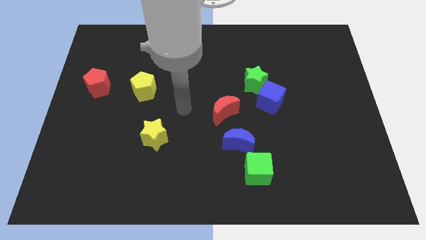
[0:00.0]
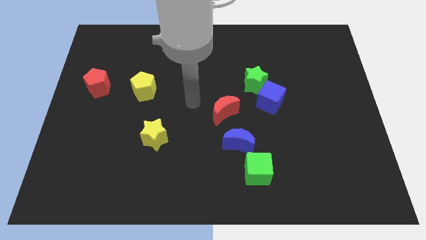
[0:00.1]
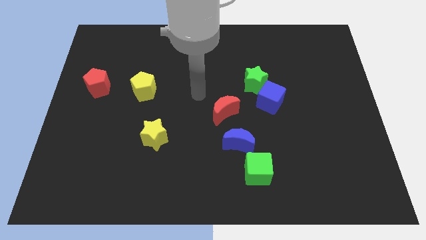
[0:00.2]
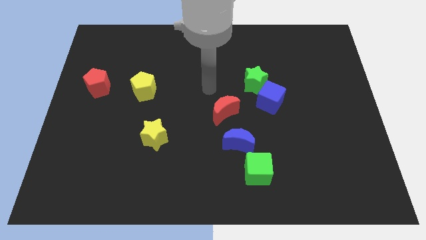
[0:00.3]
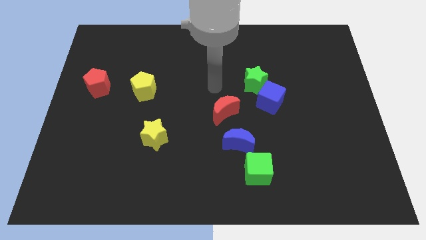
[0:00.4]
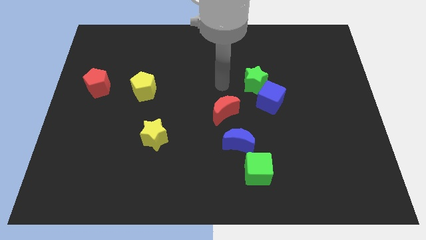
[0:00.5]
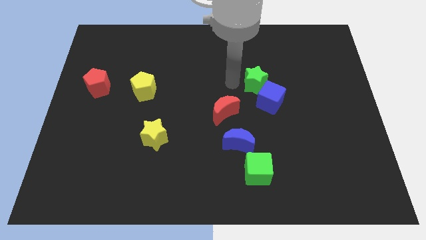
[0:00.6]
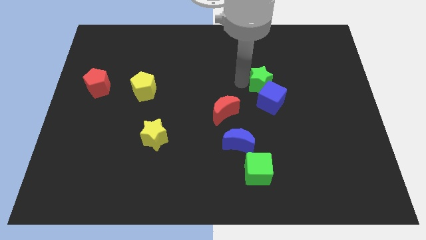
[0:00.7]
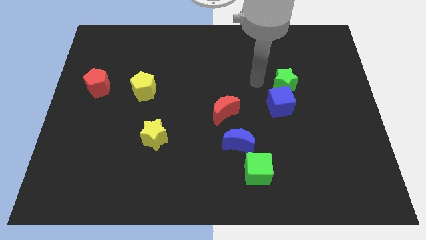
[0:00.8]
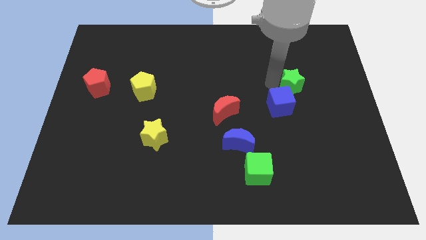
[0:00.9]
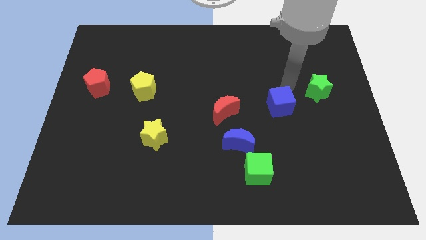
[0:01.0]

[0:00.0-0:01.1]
move the blue cube away from the green star

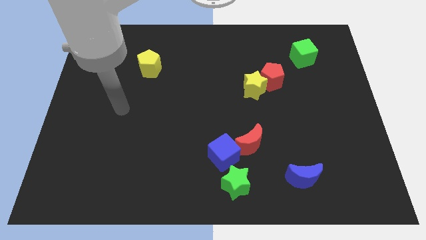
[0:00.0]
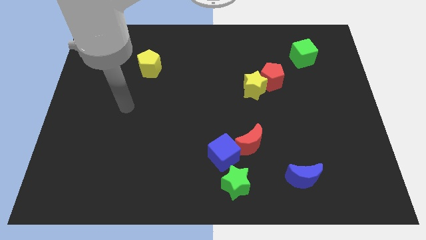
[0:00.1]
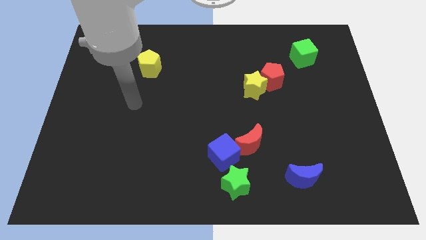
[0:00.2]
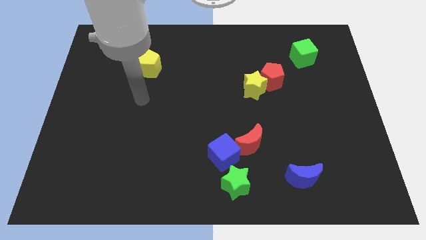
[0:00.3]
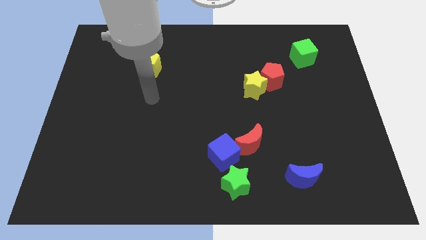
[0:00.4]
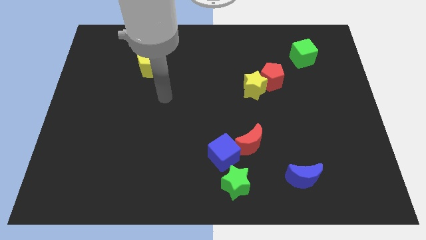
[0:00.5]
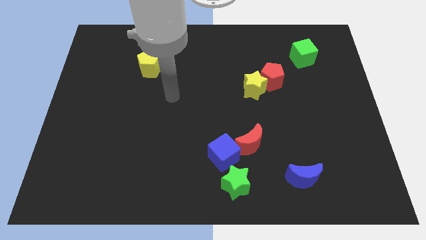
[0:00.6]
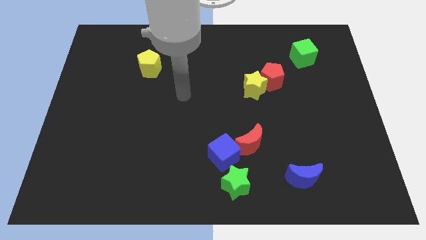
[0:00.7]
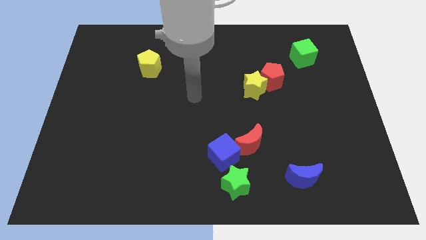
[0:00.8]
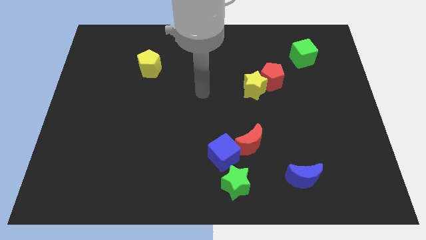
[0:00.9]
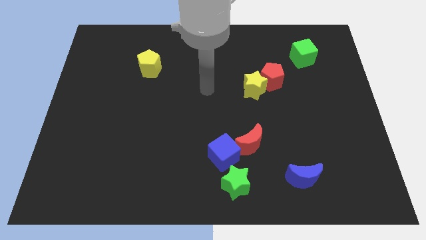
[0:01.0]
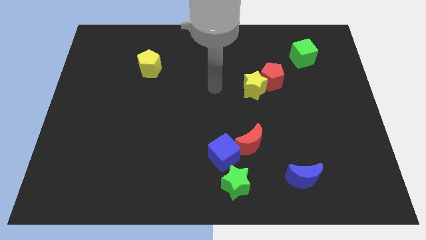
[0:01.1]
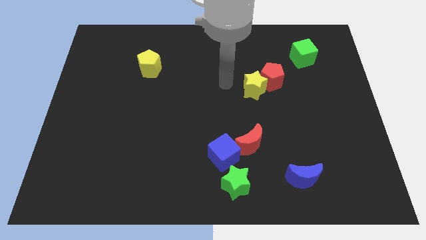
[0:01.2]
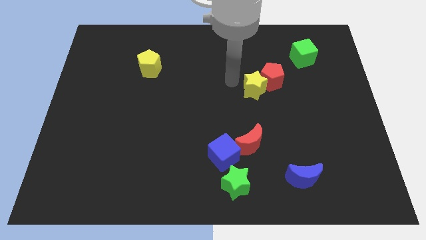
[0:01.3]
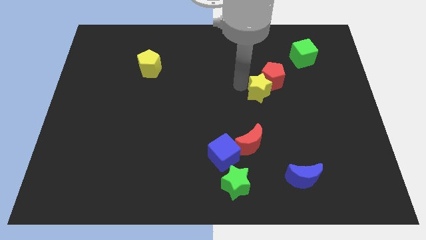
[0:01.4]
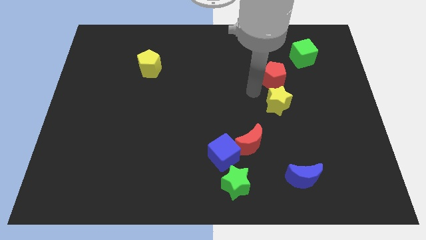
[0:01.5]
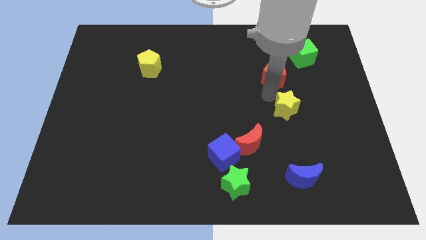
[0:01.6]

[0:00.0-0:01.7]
separate the red pentagon from the yellow star

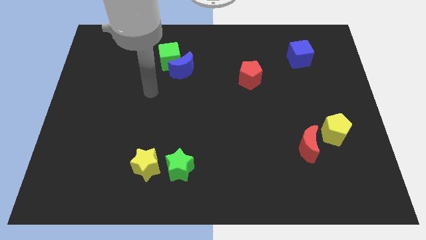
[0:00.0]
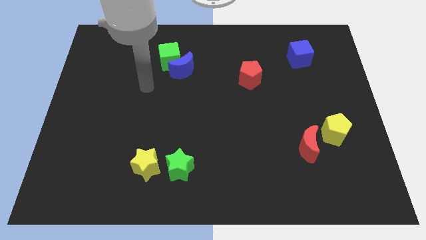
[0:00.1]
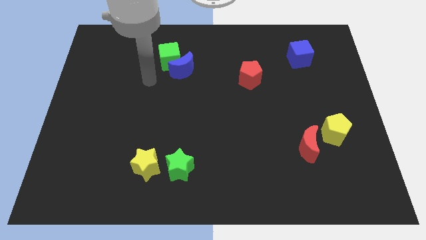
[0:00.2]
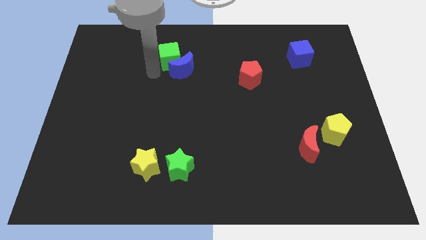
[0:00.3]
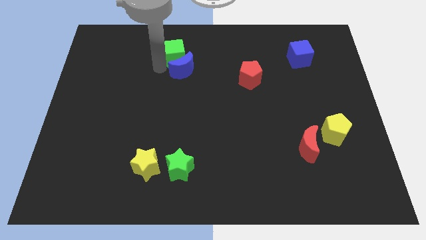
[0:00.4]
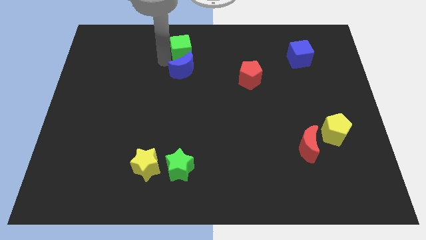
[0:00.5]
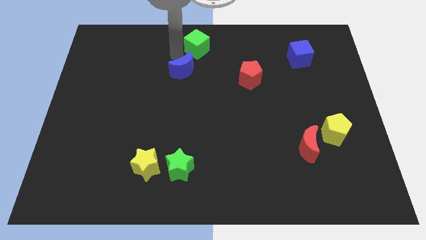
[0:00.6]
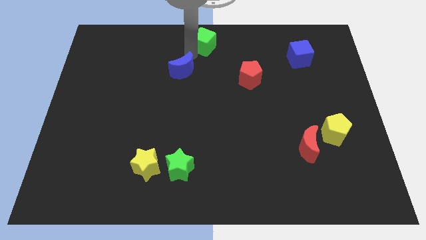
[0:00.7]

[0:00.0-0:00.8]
separate the blue moon from the green cube

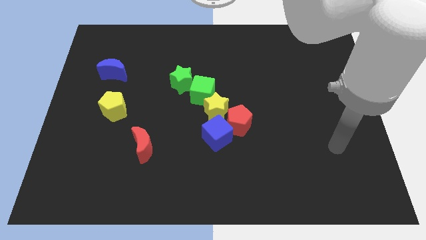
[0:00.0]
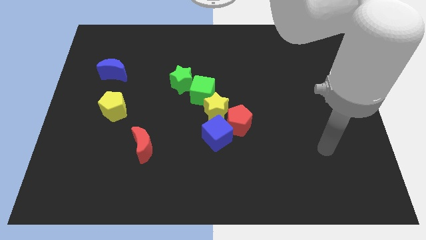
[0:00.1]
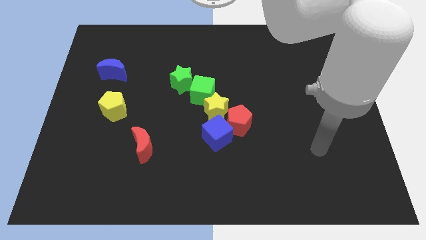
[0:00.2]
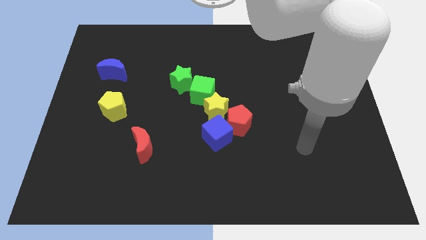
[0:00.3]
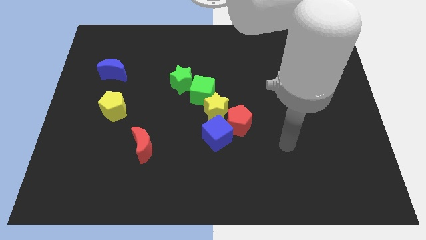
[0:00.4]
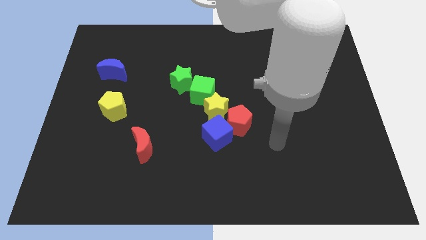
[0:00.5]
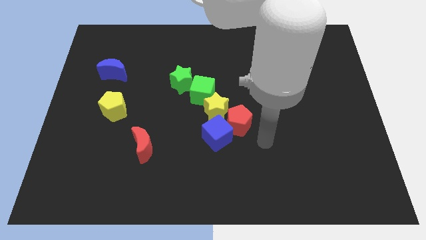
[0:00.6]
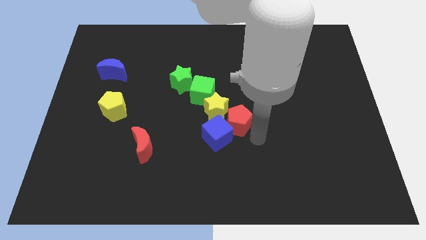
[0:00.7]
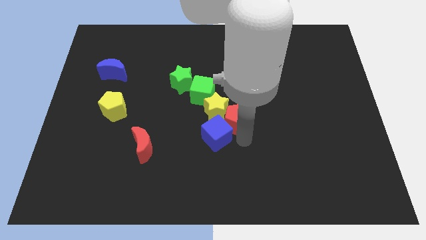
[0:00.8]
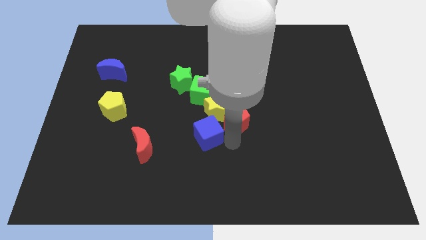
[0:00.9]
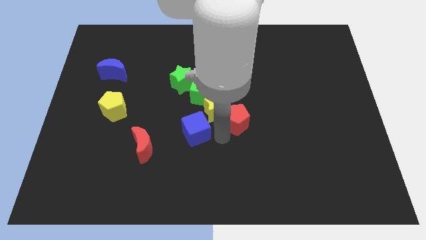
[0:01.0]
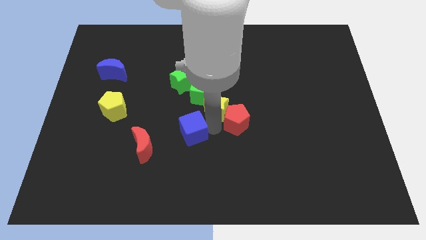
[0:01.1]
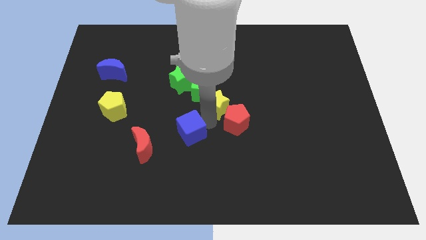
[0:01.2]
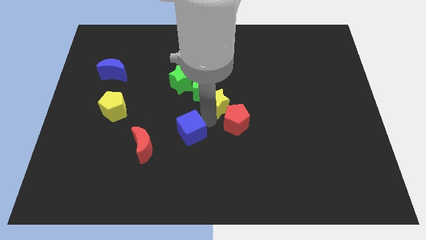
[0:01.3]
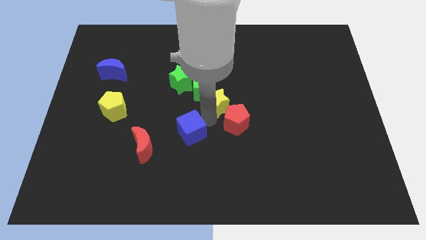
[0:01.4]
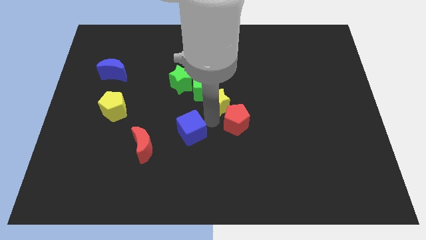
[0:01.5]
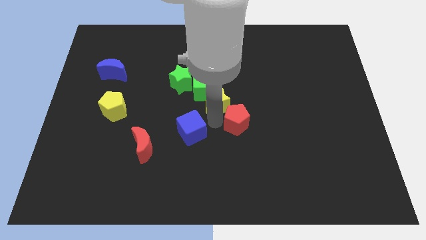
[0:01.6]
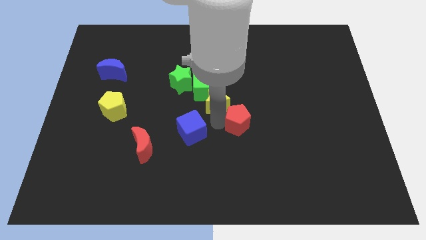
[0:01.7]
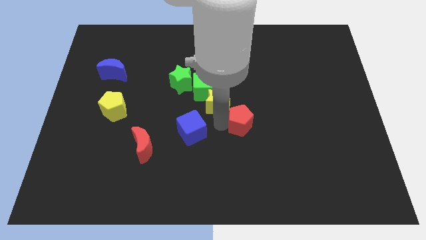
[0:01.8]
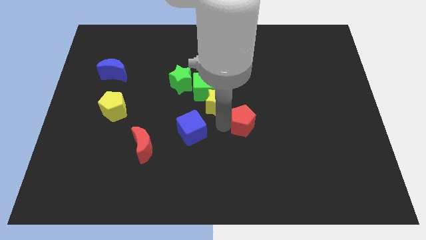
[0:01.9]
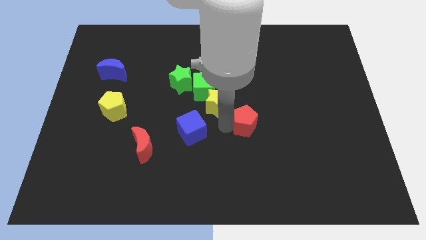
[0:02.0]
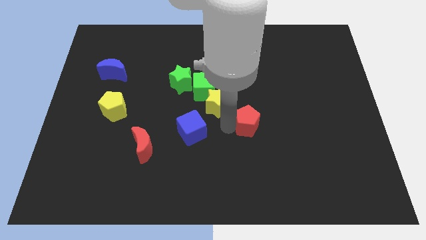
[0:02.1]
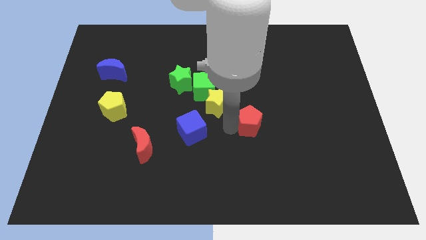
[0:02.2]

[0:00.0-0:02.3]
separate the red pentagon from the blue cube and yellow star

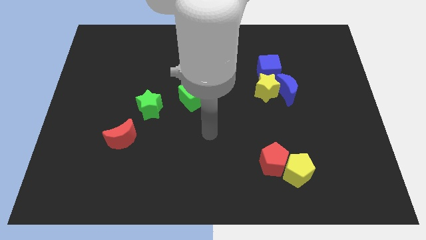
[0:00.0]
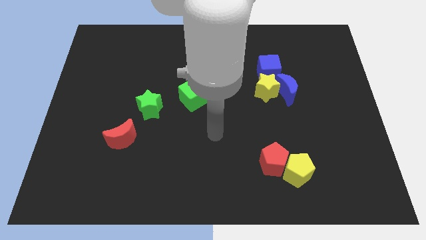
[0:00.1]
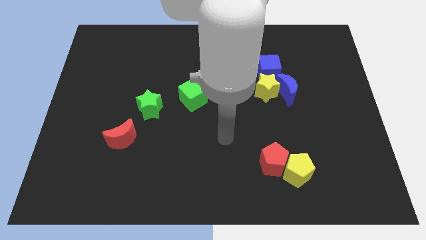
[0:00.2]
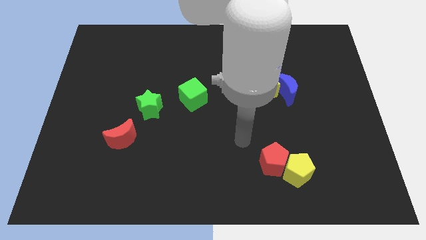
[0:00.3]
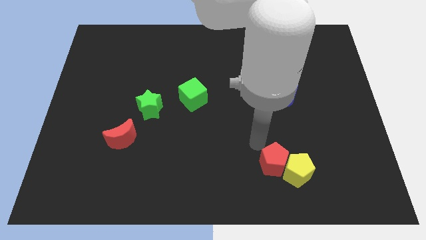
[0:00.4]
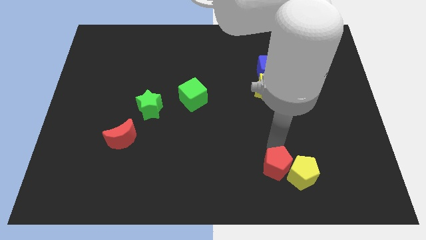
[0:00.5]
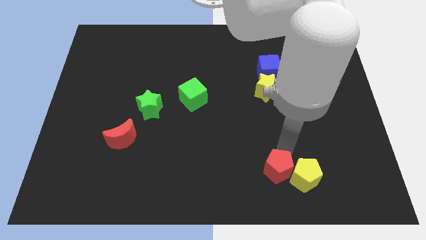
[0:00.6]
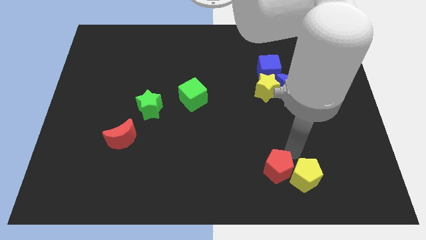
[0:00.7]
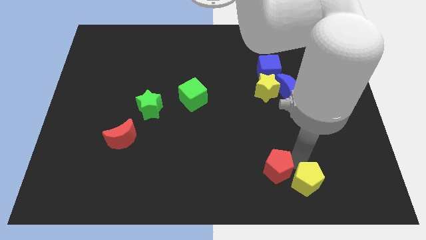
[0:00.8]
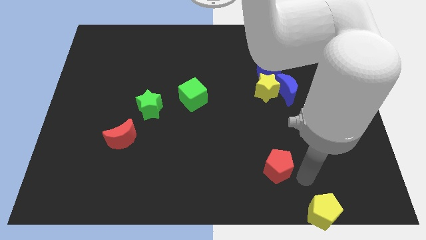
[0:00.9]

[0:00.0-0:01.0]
move the red pentagon away from the yellow pentagon

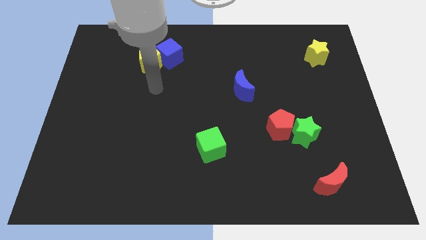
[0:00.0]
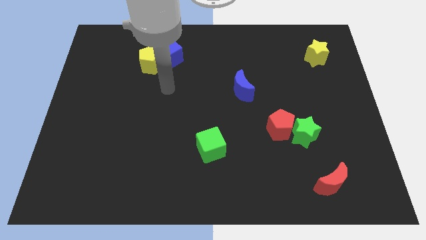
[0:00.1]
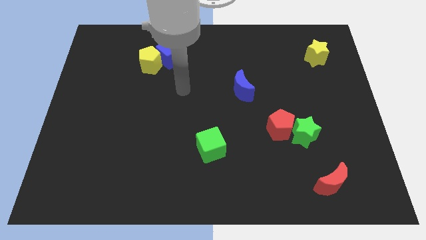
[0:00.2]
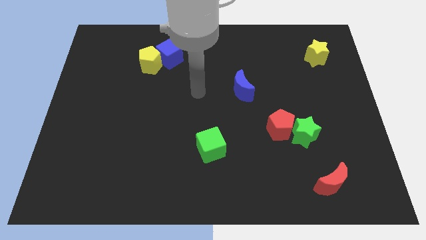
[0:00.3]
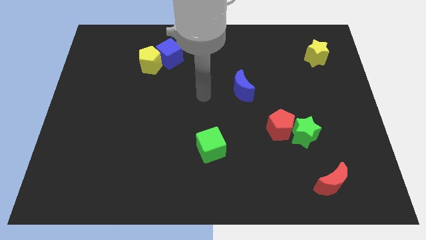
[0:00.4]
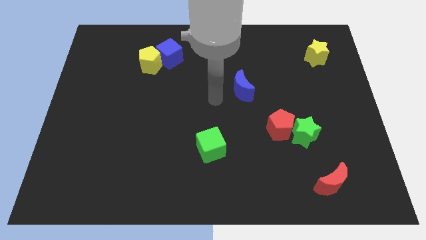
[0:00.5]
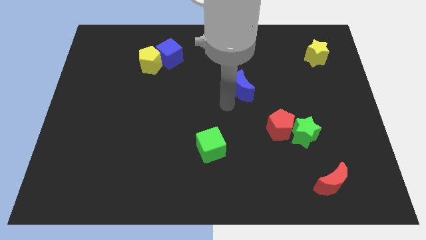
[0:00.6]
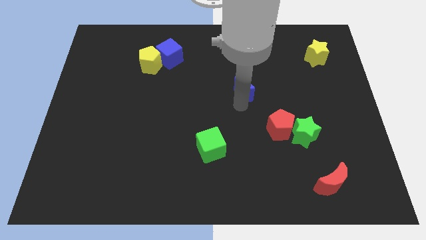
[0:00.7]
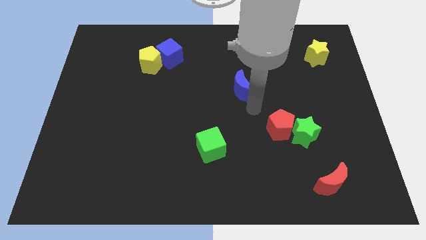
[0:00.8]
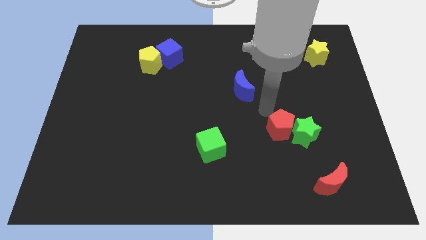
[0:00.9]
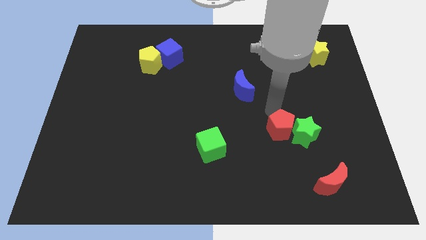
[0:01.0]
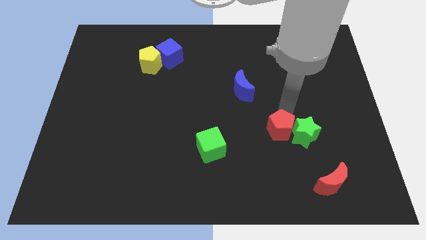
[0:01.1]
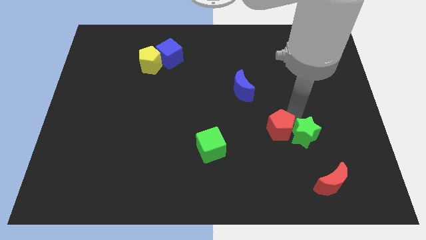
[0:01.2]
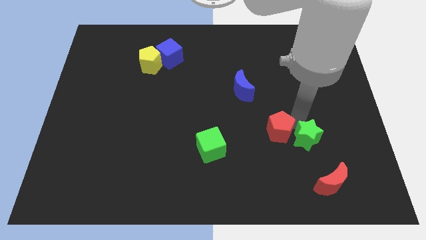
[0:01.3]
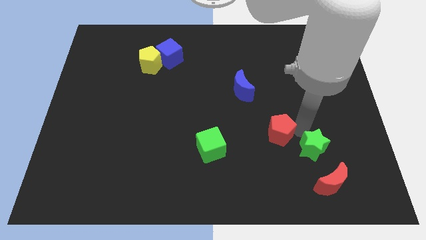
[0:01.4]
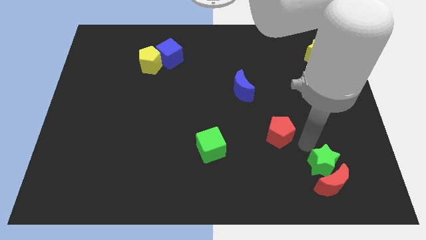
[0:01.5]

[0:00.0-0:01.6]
move the red pentagon away from the green star

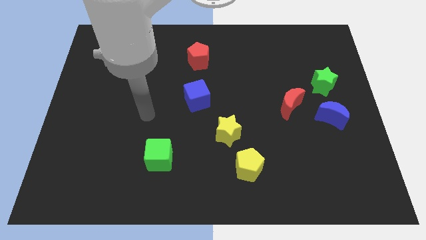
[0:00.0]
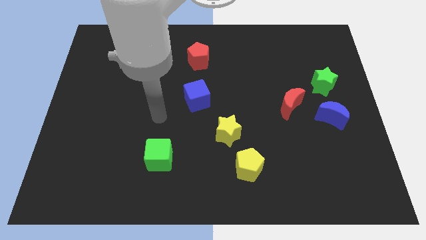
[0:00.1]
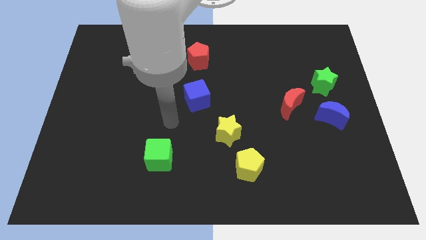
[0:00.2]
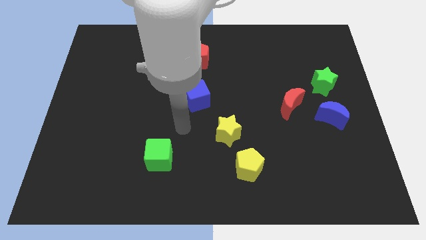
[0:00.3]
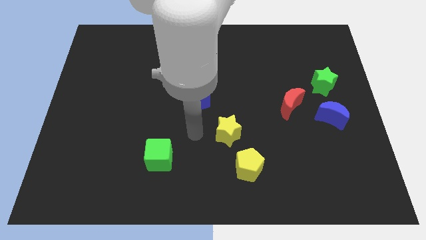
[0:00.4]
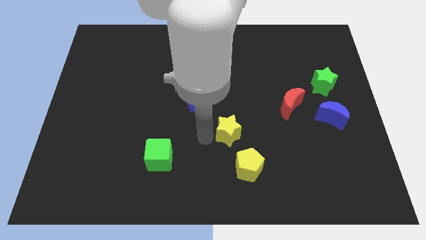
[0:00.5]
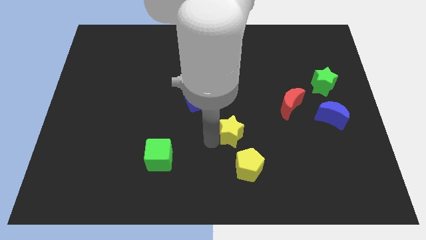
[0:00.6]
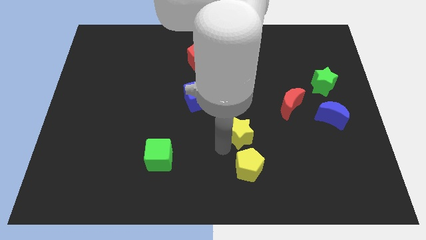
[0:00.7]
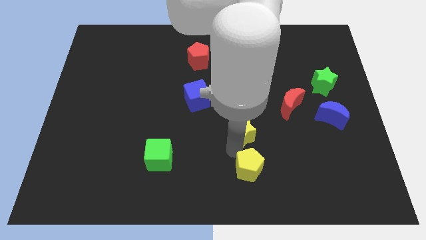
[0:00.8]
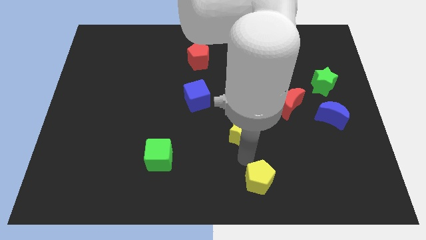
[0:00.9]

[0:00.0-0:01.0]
pull the yellow star apart from the yellow pentagon
